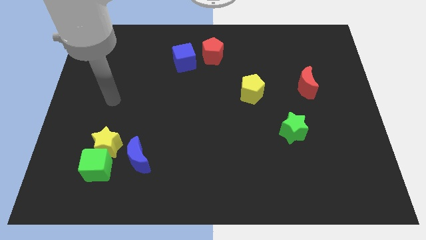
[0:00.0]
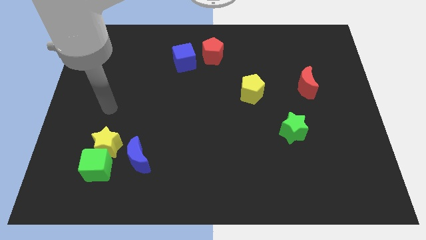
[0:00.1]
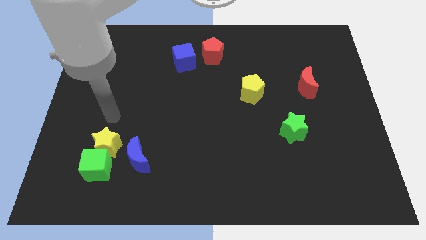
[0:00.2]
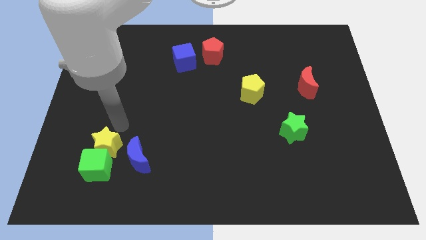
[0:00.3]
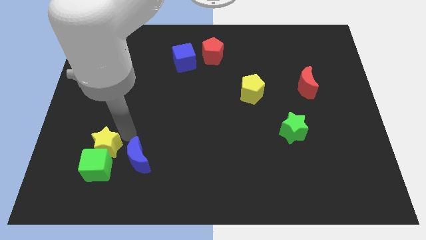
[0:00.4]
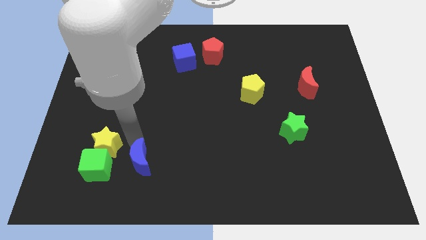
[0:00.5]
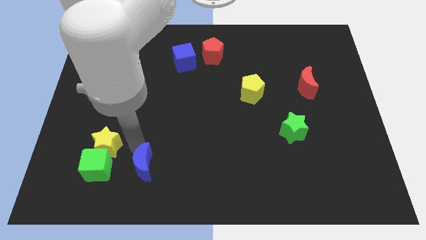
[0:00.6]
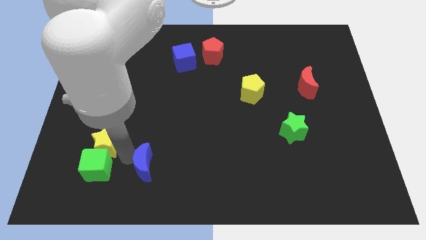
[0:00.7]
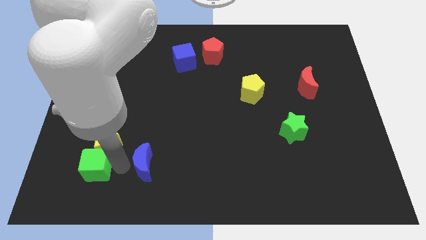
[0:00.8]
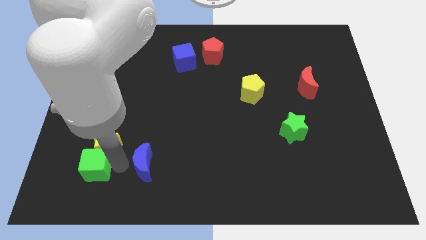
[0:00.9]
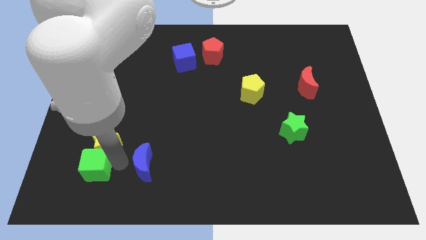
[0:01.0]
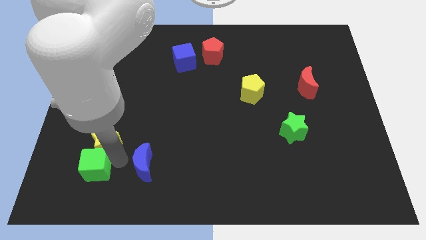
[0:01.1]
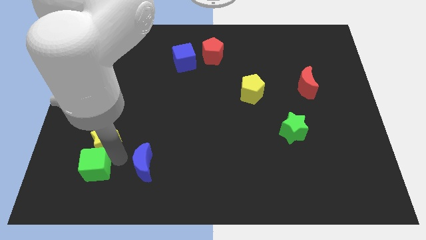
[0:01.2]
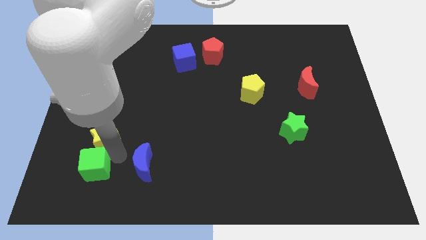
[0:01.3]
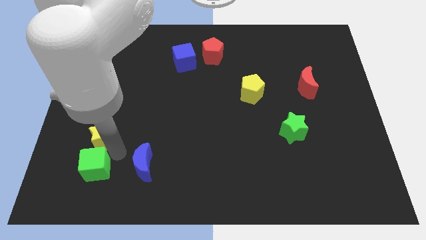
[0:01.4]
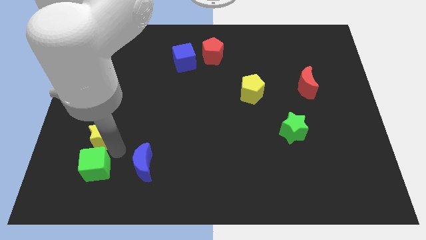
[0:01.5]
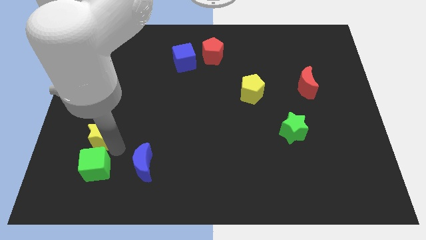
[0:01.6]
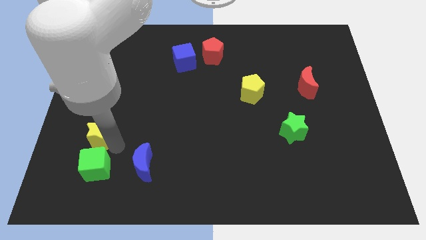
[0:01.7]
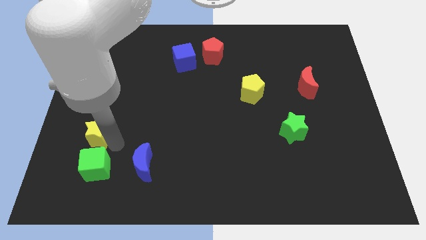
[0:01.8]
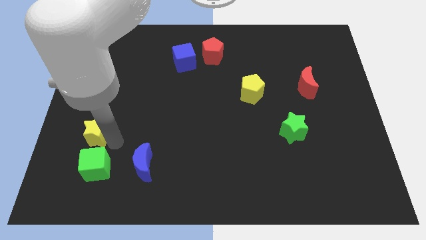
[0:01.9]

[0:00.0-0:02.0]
separate the yellow star from the green cube and blue moon

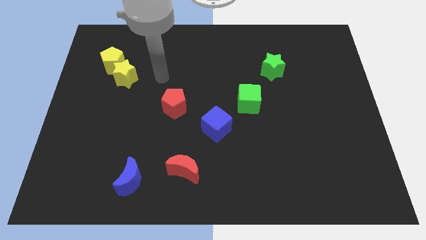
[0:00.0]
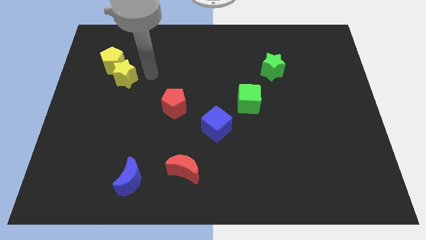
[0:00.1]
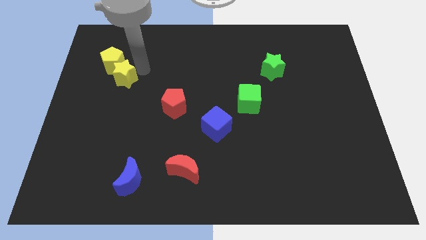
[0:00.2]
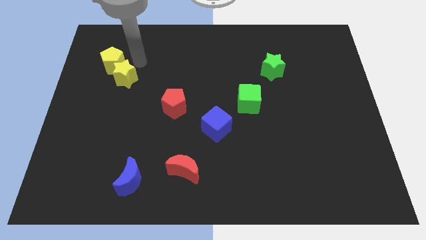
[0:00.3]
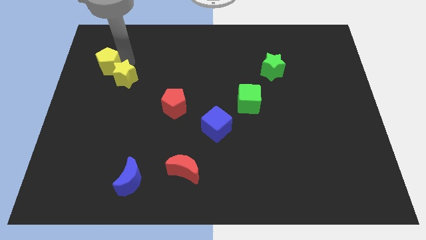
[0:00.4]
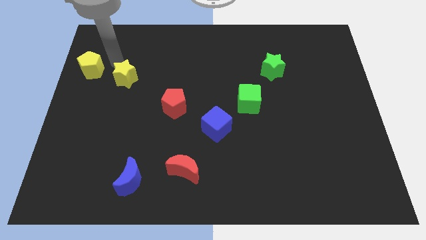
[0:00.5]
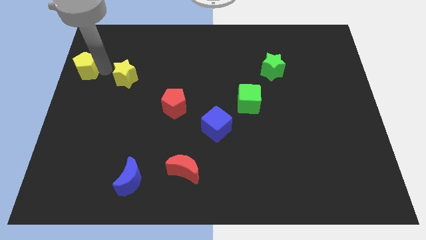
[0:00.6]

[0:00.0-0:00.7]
move the yellow star away from the yellow pentagon

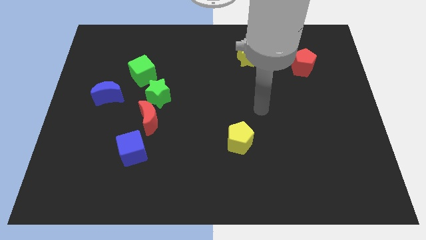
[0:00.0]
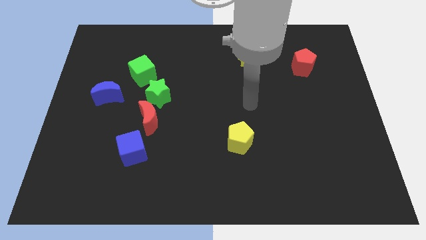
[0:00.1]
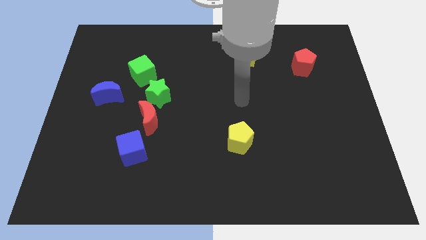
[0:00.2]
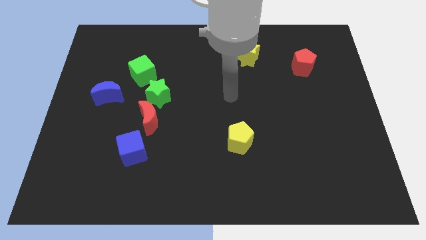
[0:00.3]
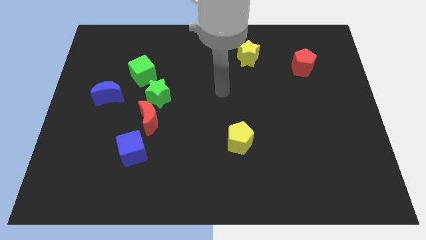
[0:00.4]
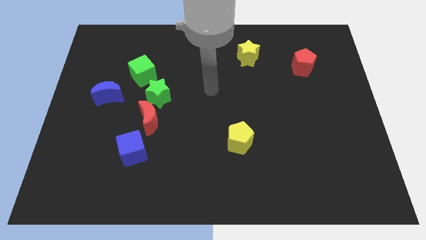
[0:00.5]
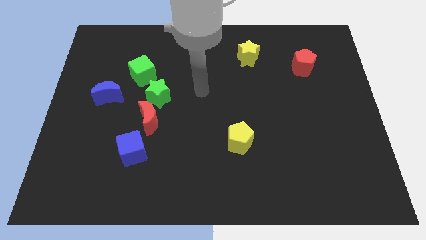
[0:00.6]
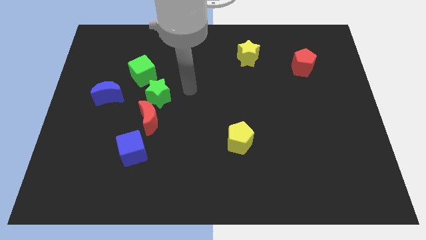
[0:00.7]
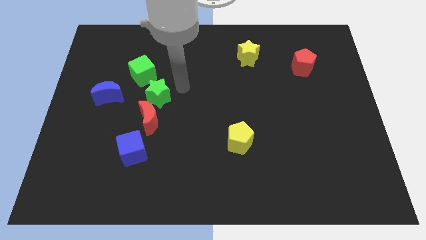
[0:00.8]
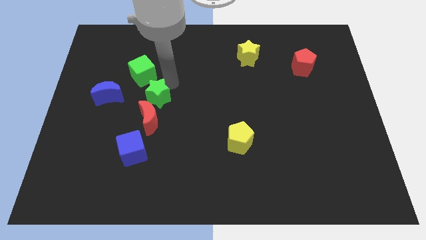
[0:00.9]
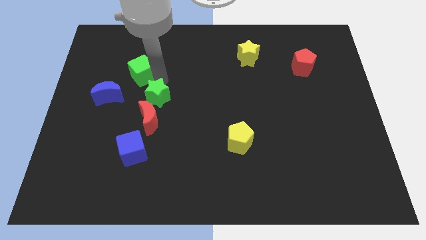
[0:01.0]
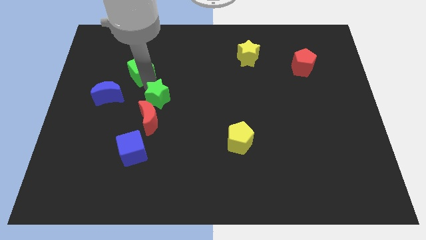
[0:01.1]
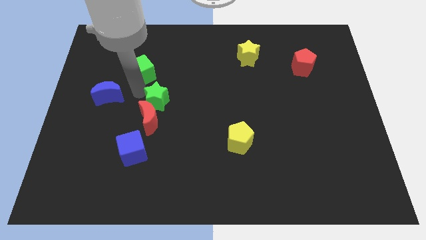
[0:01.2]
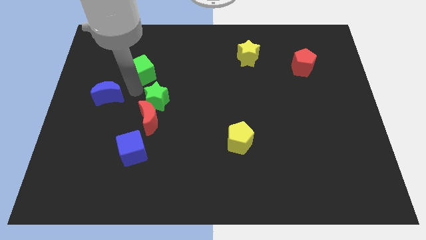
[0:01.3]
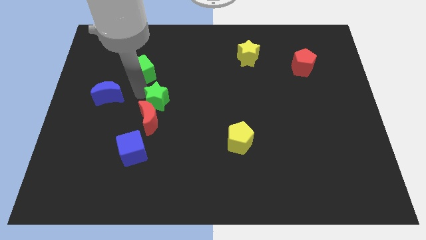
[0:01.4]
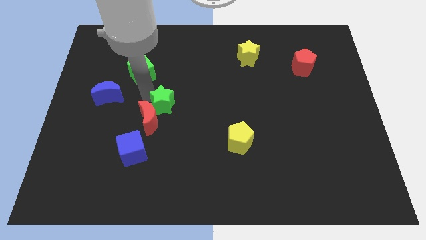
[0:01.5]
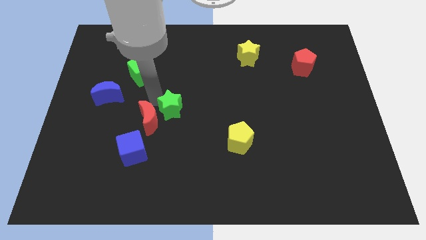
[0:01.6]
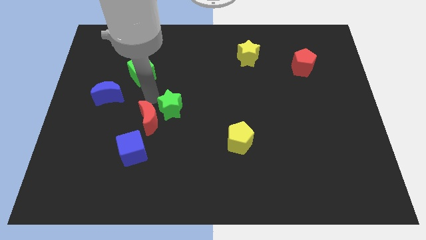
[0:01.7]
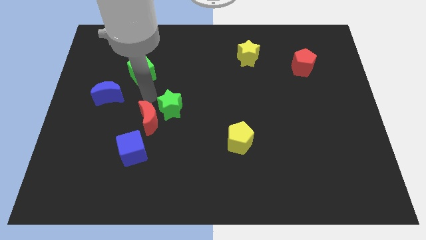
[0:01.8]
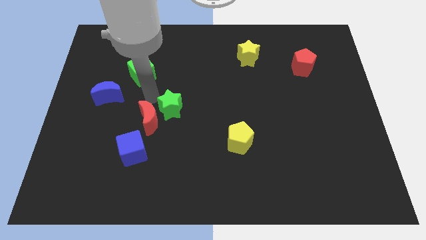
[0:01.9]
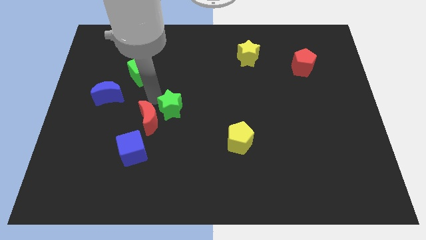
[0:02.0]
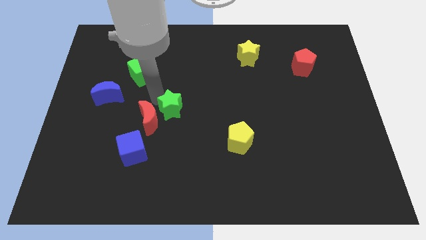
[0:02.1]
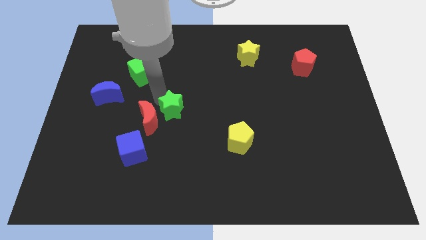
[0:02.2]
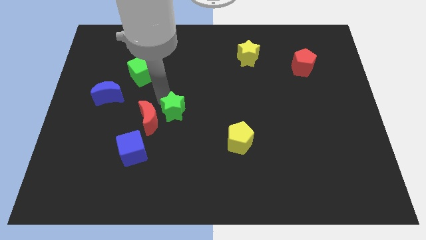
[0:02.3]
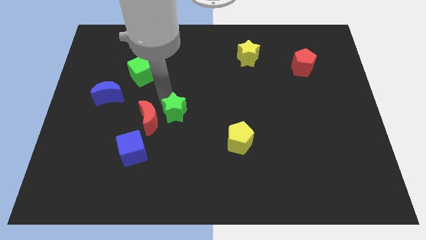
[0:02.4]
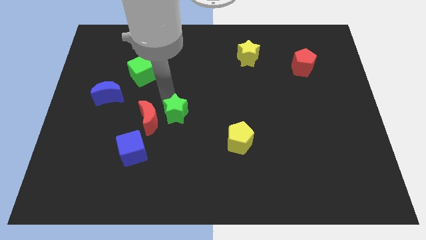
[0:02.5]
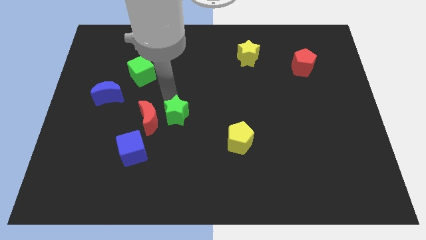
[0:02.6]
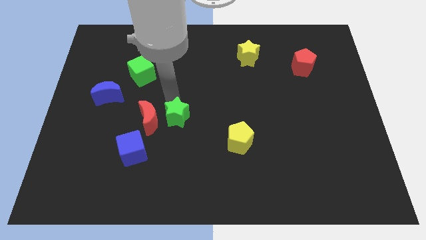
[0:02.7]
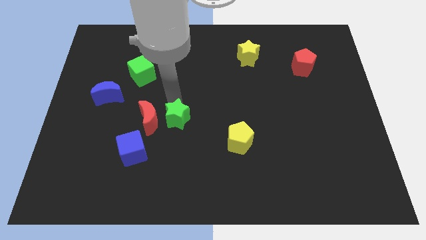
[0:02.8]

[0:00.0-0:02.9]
pull the green star apart from the red moon and green cube

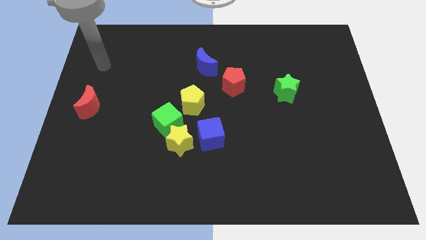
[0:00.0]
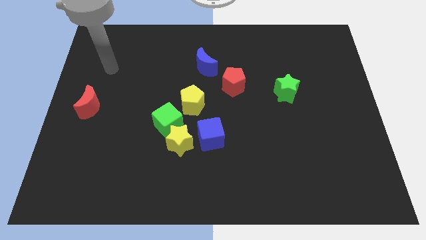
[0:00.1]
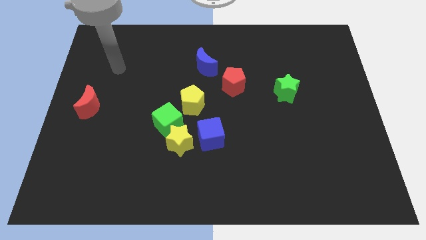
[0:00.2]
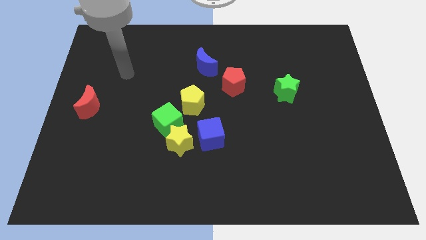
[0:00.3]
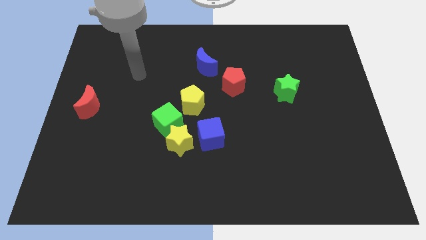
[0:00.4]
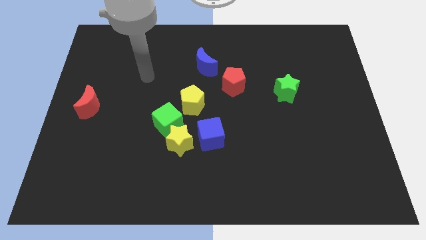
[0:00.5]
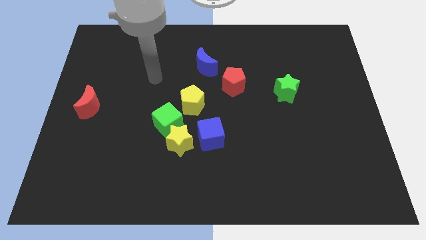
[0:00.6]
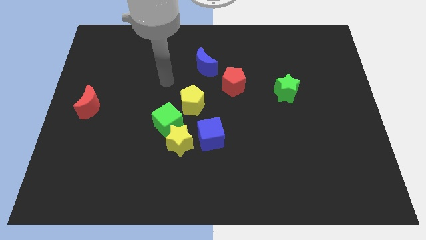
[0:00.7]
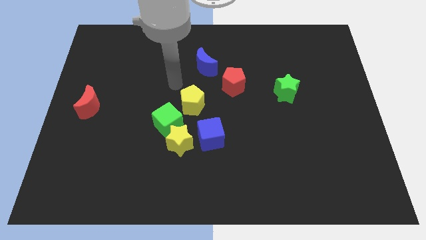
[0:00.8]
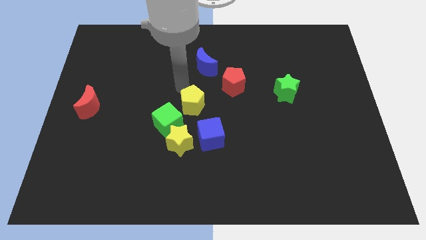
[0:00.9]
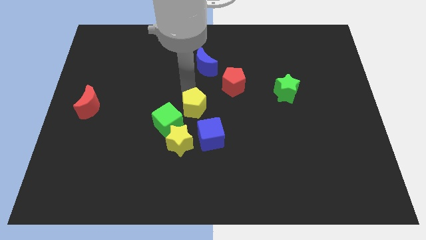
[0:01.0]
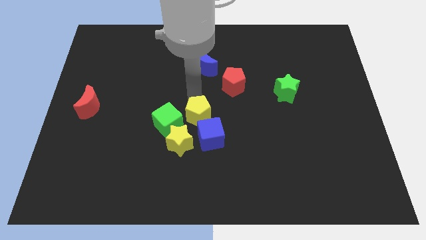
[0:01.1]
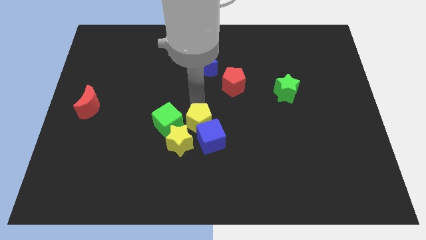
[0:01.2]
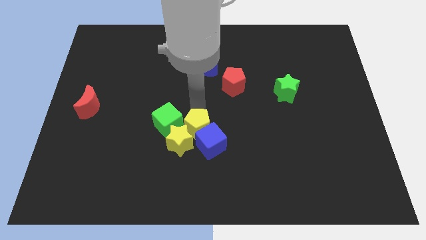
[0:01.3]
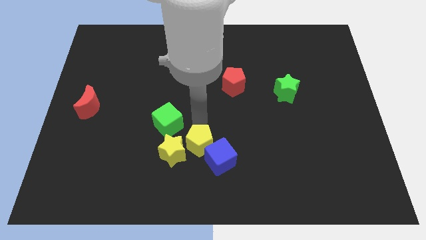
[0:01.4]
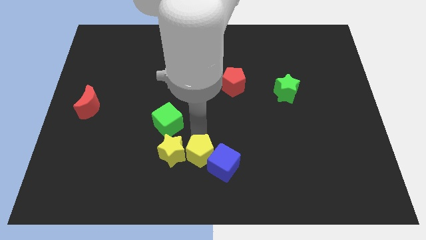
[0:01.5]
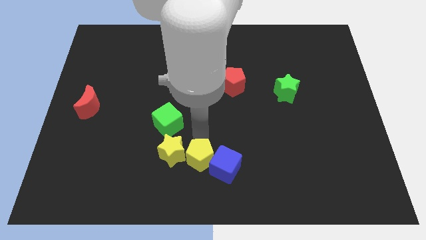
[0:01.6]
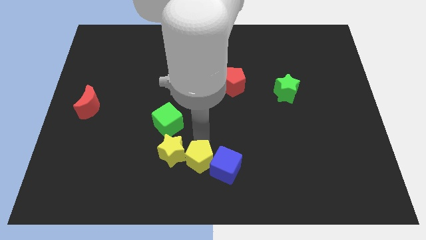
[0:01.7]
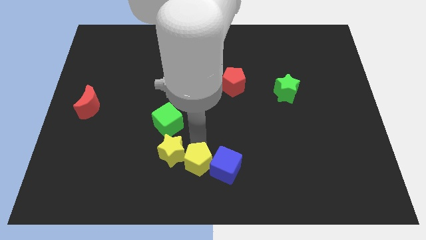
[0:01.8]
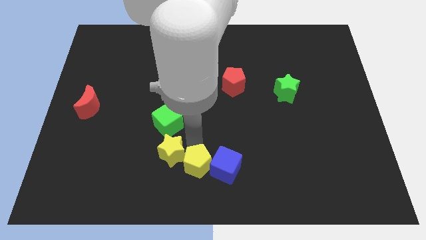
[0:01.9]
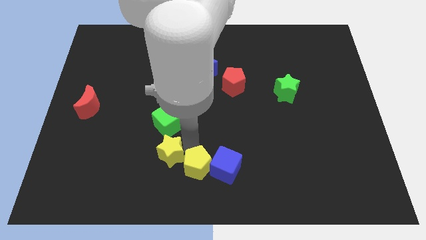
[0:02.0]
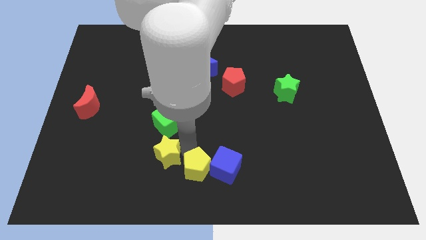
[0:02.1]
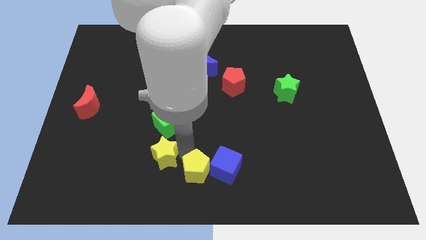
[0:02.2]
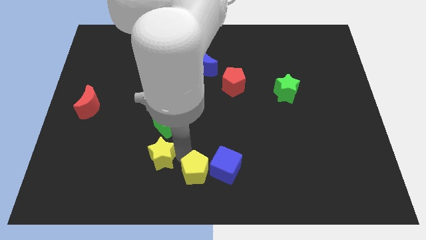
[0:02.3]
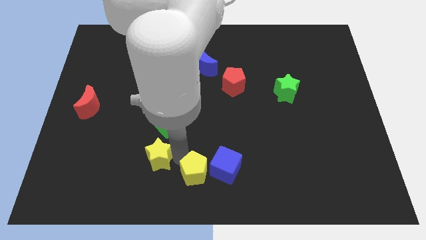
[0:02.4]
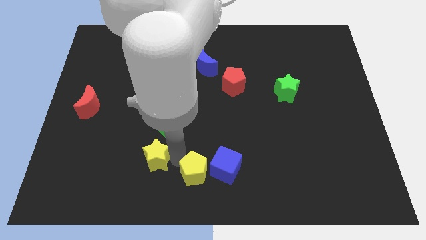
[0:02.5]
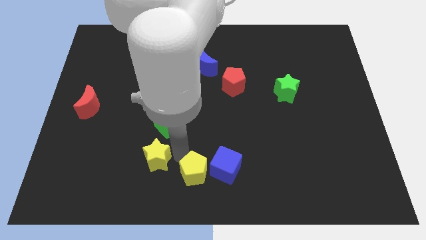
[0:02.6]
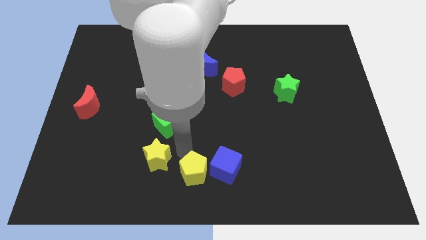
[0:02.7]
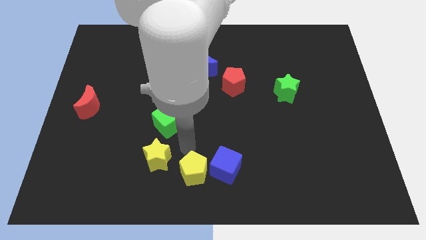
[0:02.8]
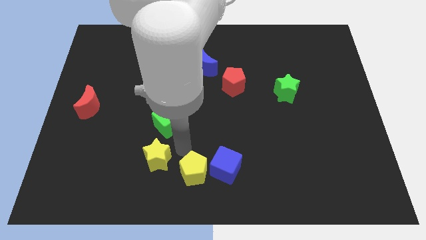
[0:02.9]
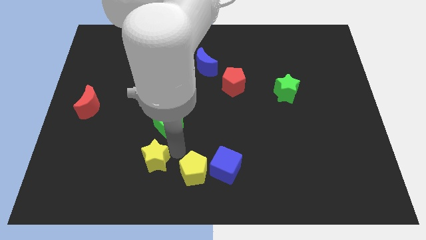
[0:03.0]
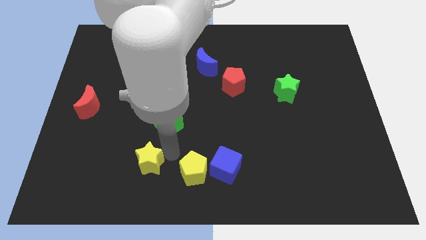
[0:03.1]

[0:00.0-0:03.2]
move the yellow star away from the green cube and blue cube

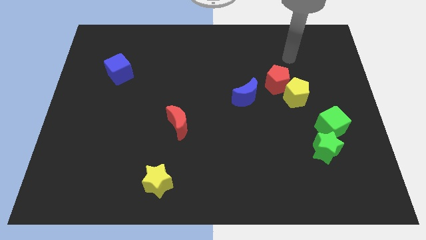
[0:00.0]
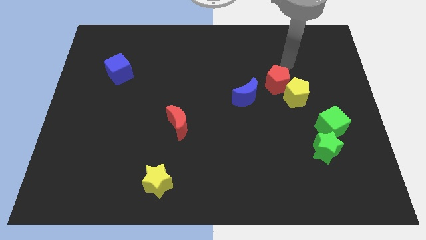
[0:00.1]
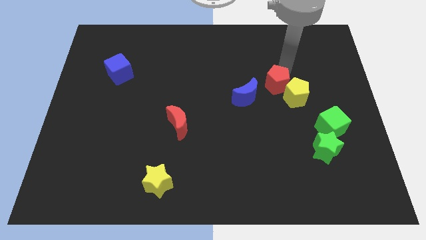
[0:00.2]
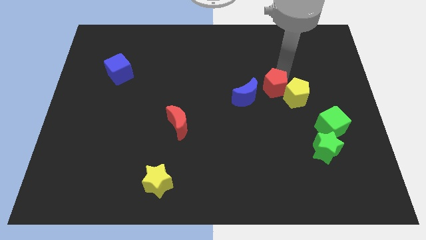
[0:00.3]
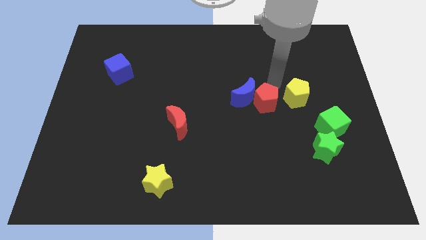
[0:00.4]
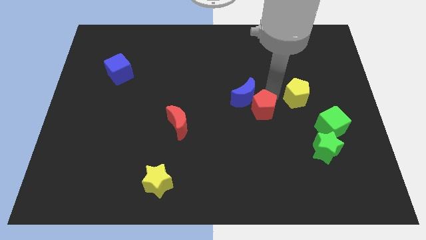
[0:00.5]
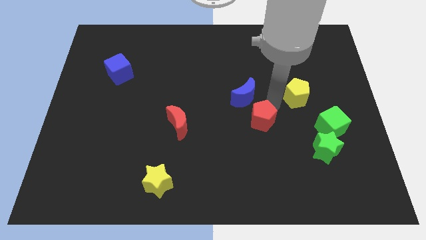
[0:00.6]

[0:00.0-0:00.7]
separate the yellow pentagon from the red pentagon
